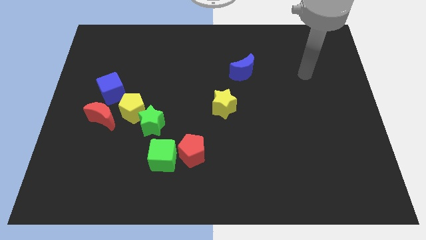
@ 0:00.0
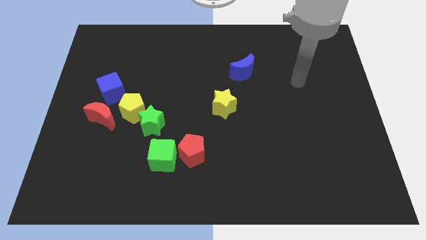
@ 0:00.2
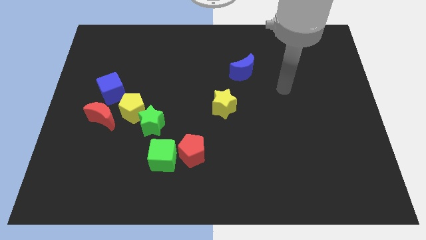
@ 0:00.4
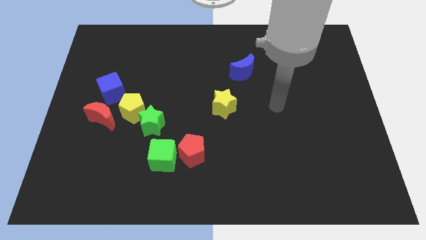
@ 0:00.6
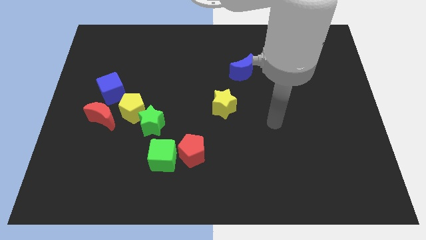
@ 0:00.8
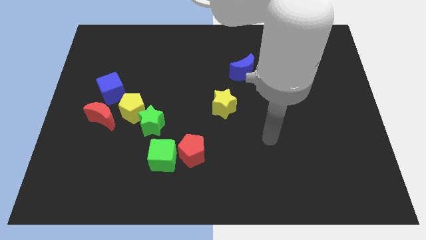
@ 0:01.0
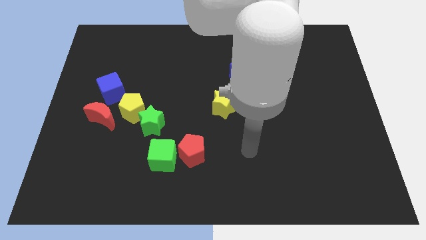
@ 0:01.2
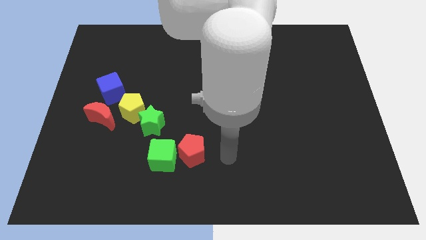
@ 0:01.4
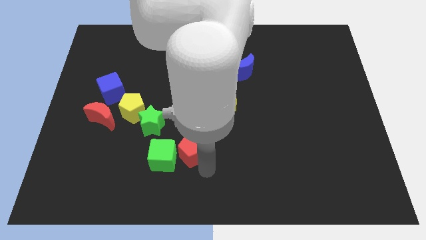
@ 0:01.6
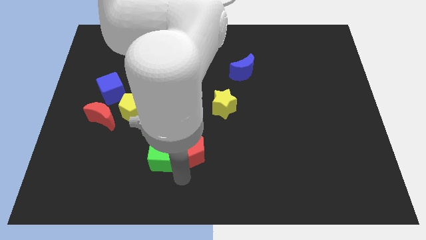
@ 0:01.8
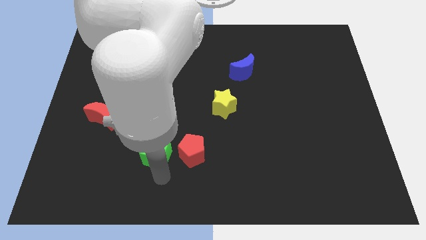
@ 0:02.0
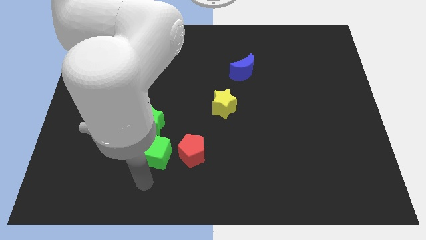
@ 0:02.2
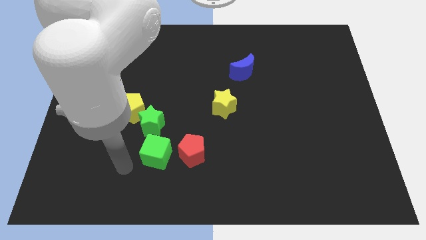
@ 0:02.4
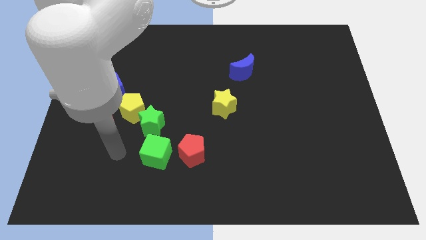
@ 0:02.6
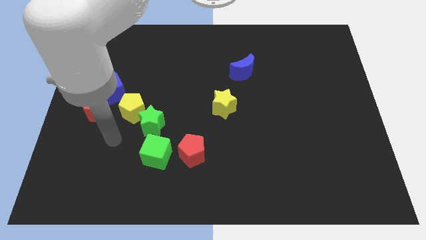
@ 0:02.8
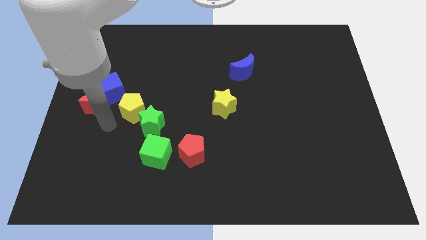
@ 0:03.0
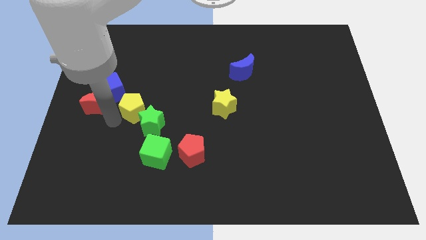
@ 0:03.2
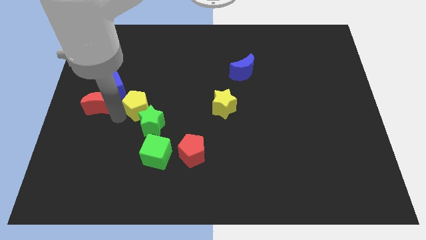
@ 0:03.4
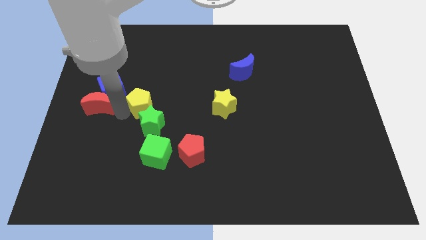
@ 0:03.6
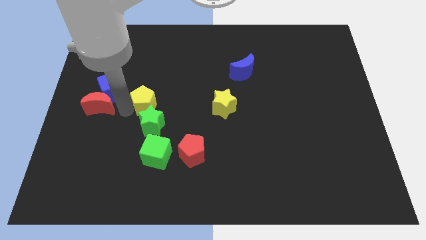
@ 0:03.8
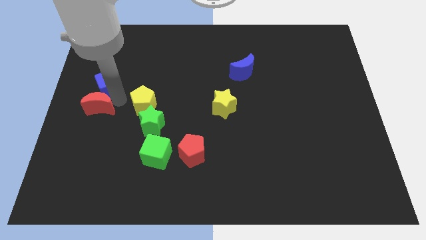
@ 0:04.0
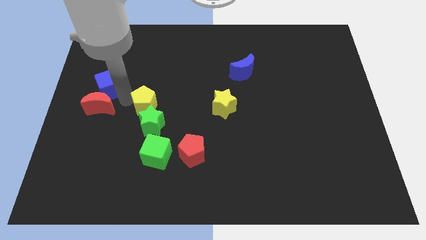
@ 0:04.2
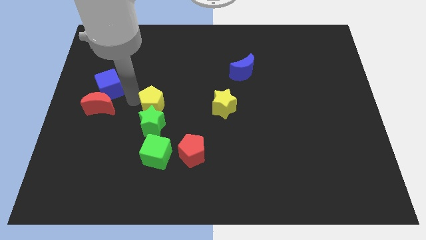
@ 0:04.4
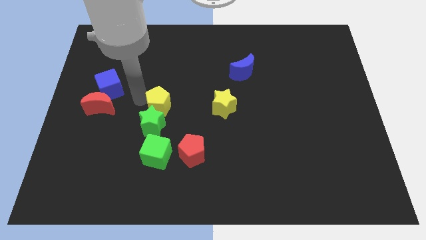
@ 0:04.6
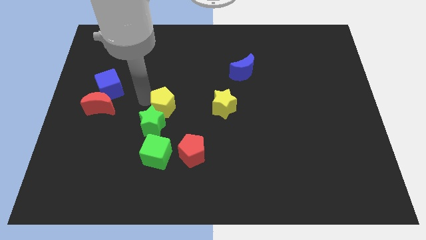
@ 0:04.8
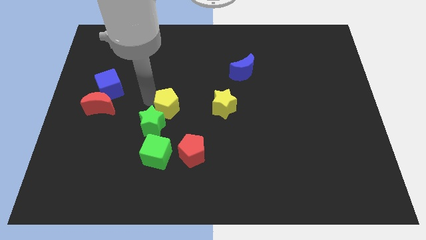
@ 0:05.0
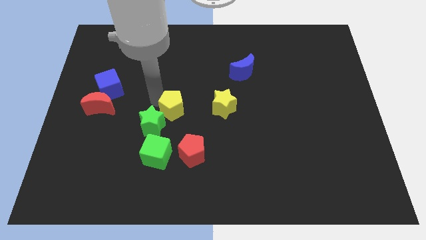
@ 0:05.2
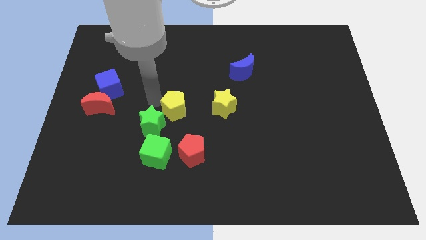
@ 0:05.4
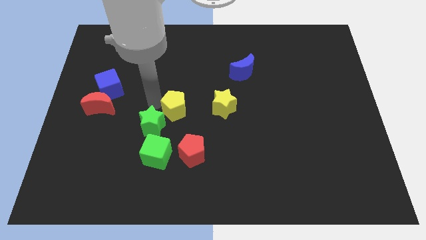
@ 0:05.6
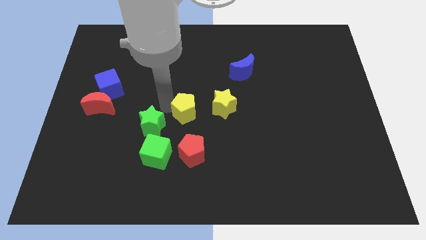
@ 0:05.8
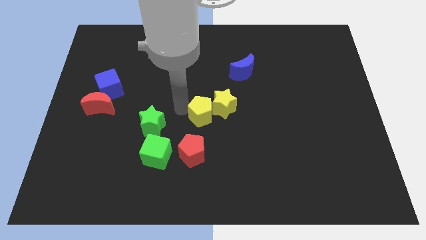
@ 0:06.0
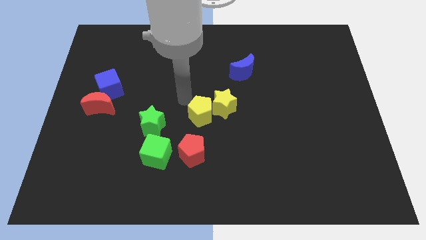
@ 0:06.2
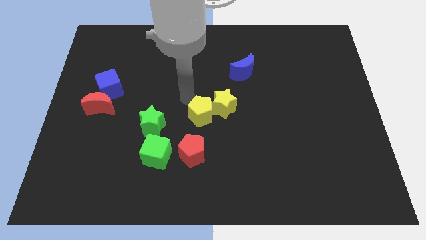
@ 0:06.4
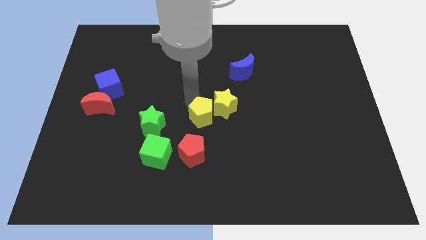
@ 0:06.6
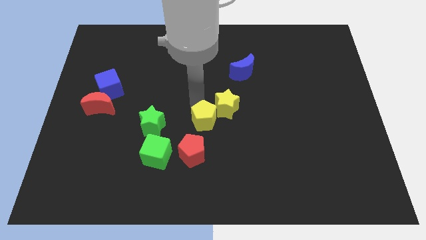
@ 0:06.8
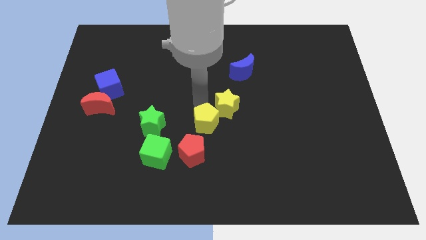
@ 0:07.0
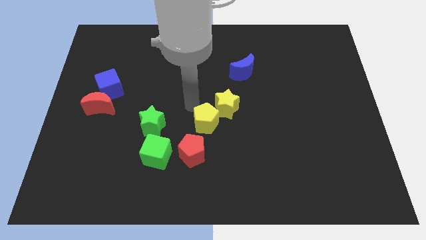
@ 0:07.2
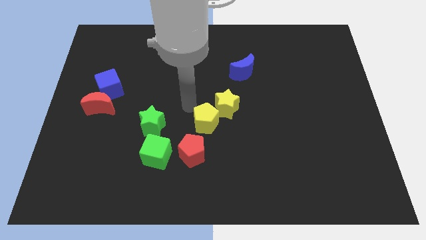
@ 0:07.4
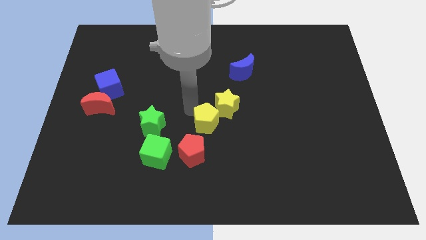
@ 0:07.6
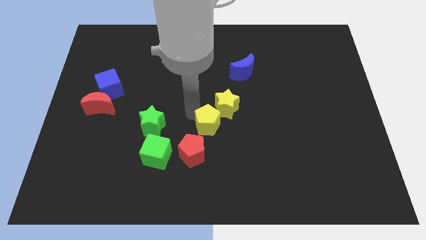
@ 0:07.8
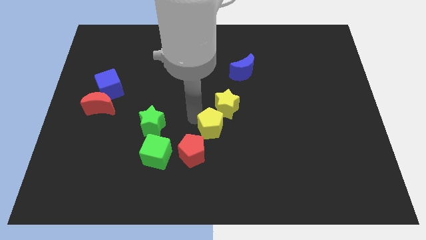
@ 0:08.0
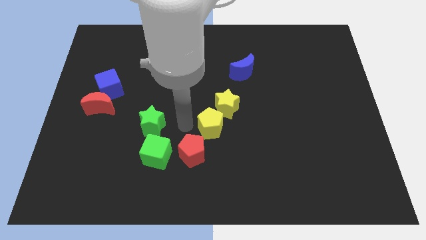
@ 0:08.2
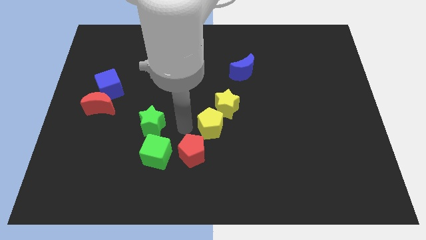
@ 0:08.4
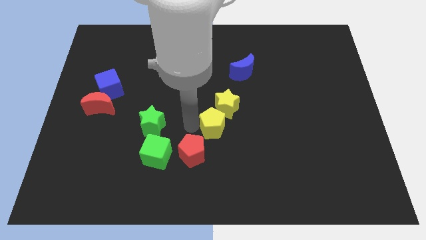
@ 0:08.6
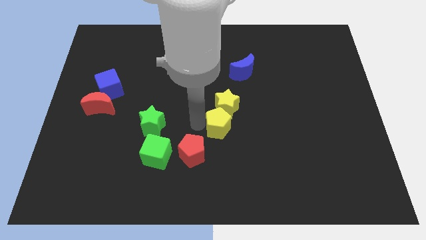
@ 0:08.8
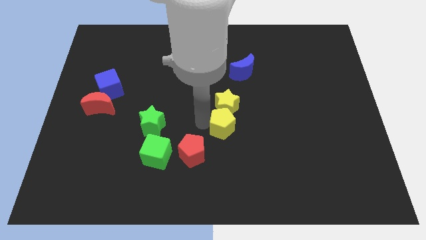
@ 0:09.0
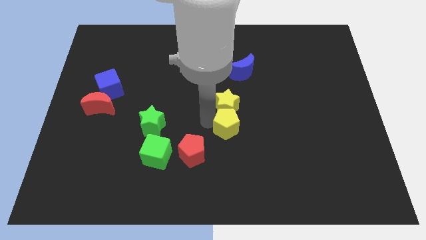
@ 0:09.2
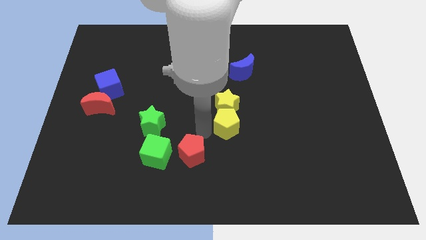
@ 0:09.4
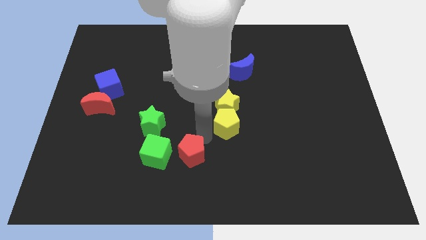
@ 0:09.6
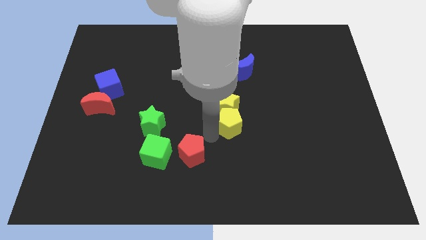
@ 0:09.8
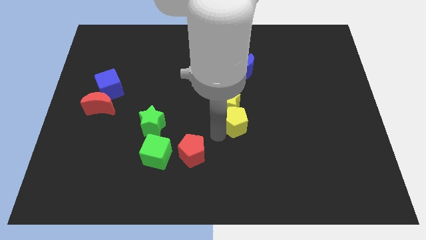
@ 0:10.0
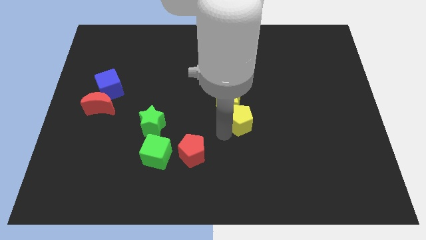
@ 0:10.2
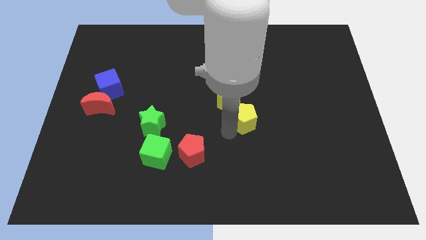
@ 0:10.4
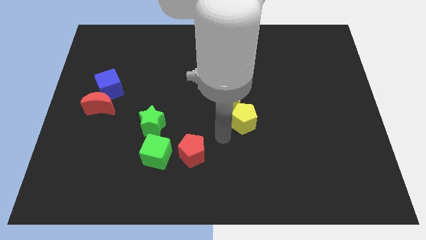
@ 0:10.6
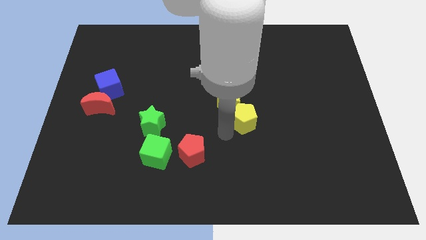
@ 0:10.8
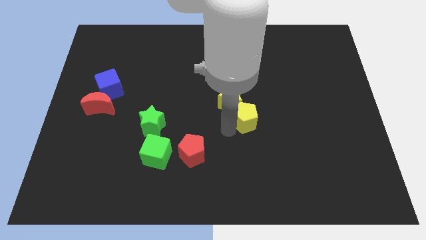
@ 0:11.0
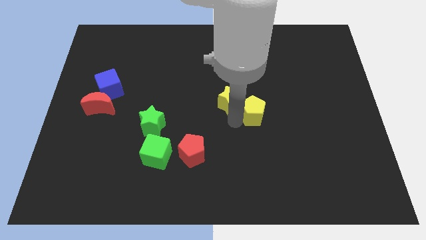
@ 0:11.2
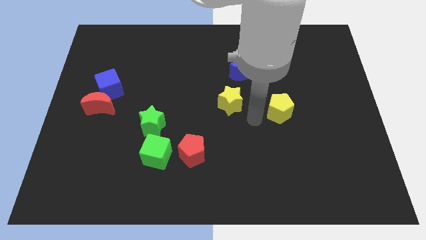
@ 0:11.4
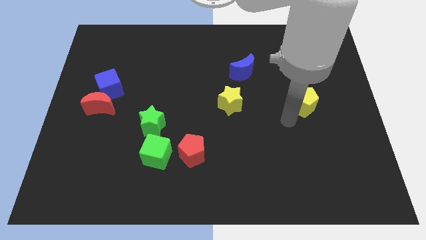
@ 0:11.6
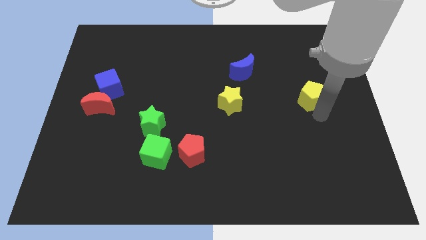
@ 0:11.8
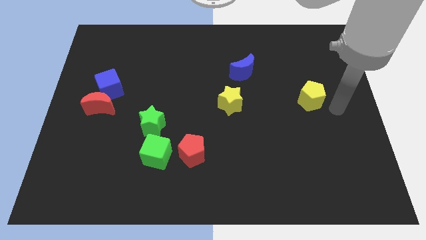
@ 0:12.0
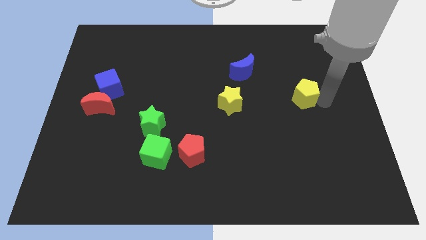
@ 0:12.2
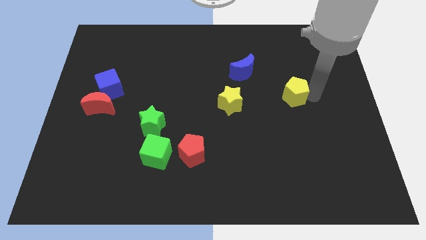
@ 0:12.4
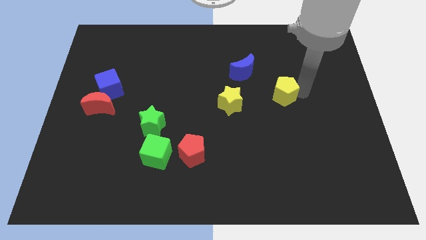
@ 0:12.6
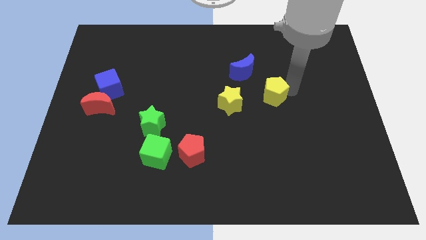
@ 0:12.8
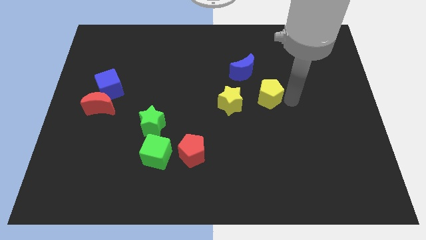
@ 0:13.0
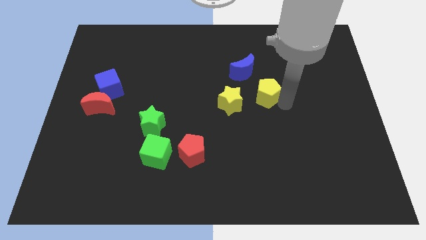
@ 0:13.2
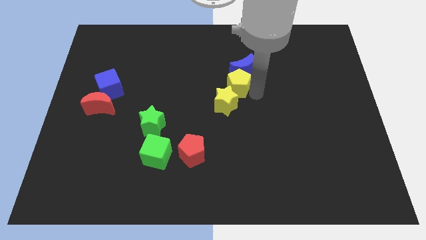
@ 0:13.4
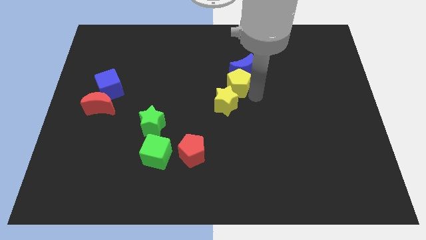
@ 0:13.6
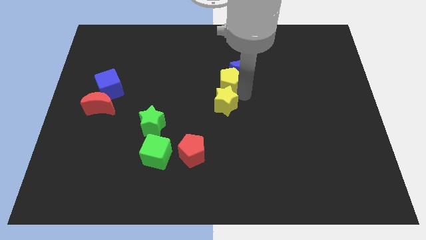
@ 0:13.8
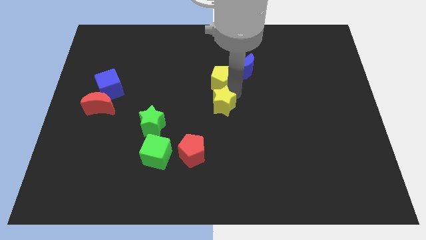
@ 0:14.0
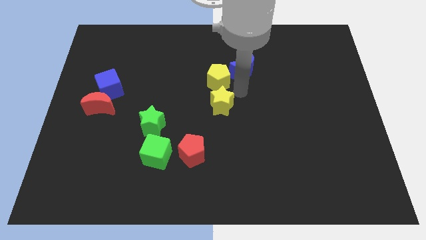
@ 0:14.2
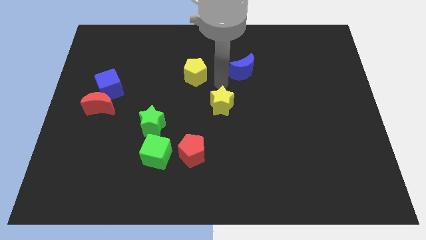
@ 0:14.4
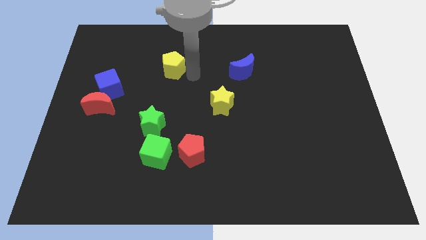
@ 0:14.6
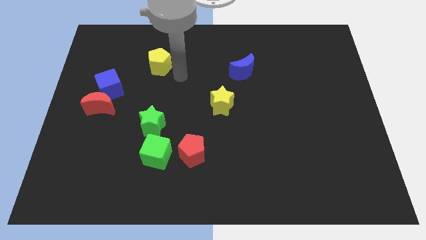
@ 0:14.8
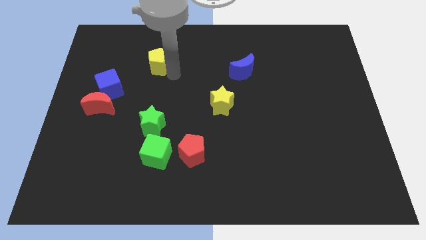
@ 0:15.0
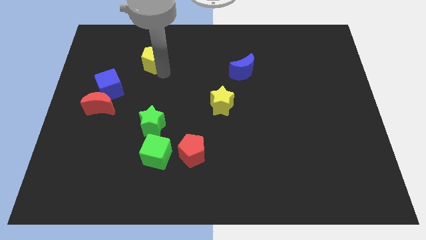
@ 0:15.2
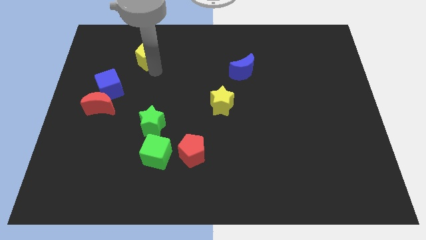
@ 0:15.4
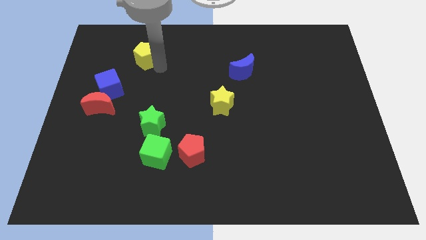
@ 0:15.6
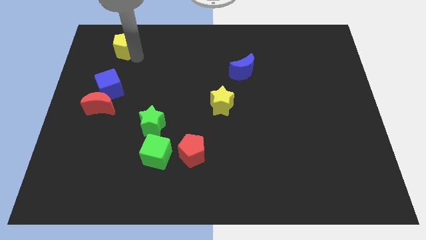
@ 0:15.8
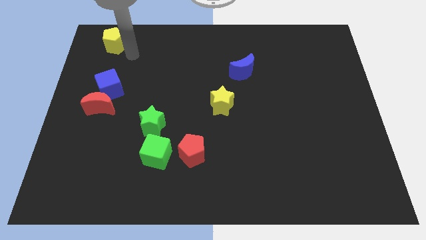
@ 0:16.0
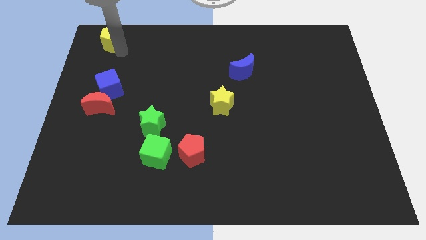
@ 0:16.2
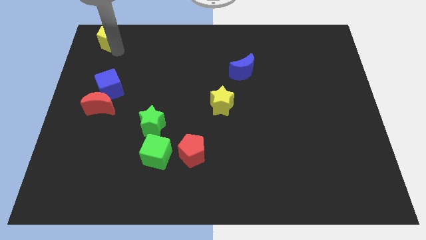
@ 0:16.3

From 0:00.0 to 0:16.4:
slide the yellow pentagon to the upper left corner
